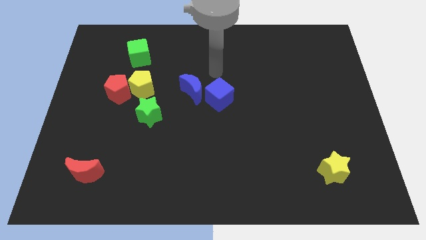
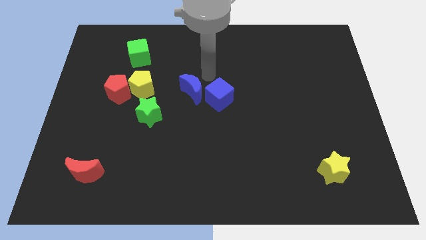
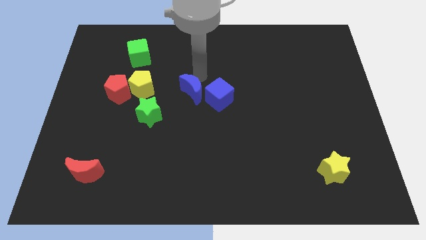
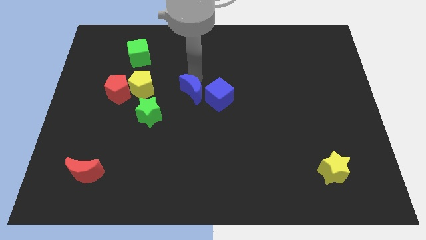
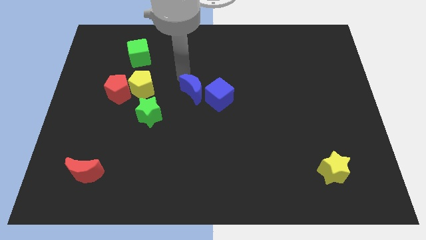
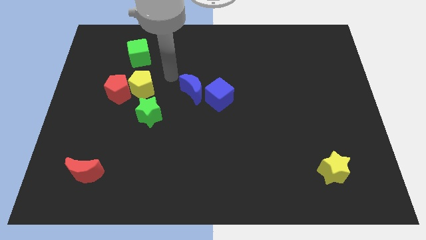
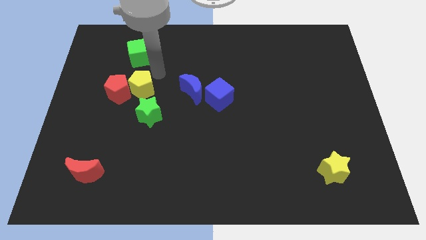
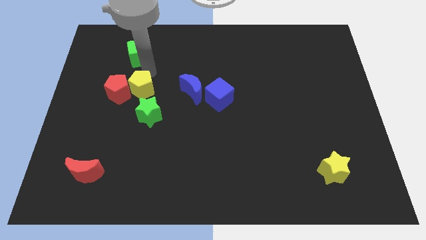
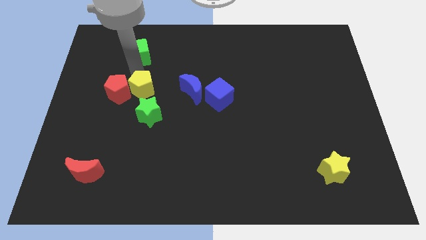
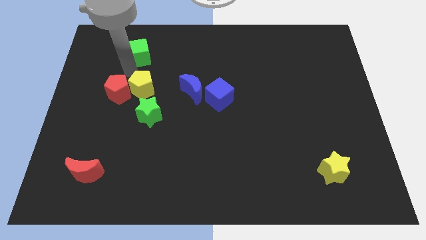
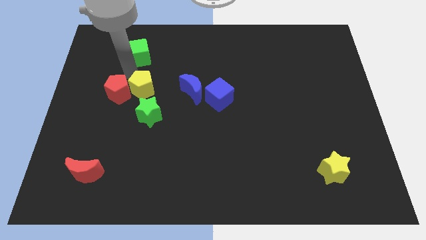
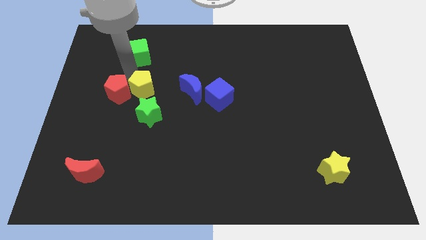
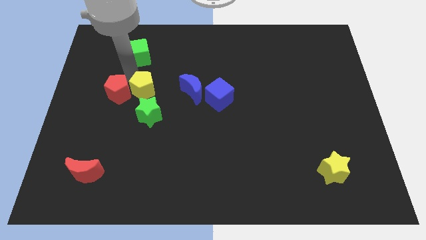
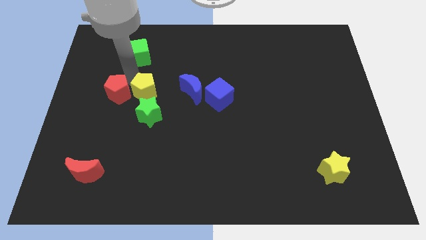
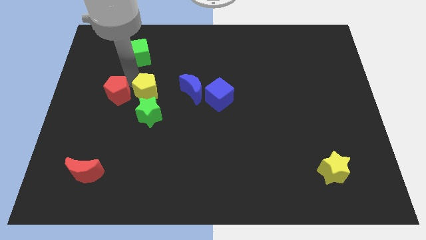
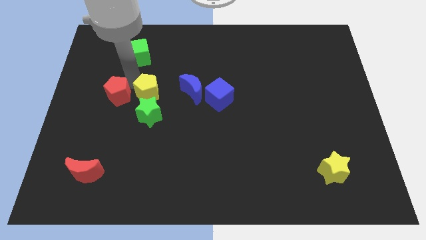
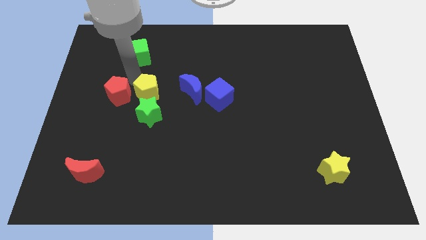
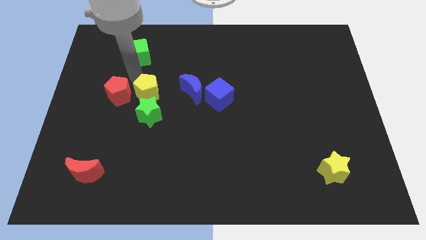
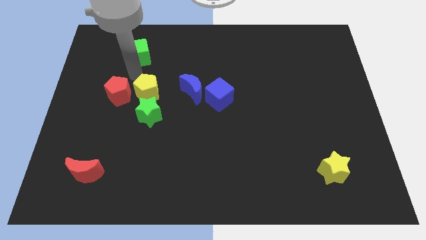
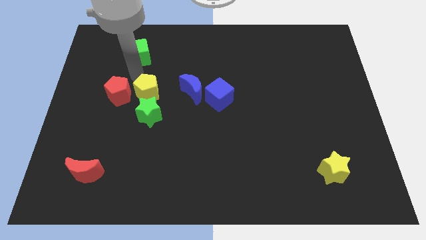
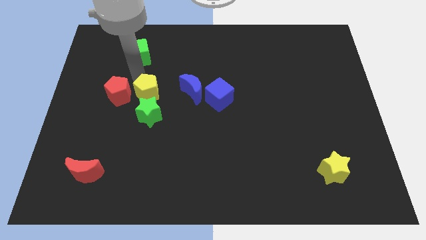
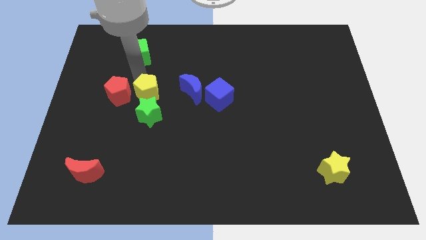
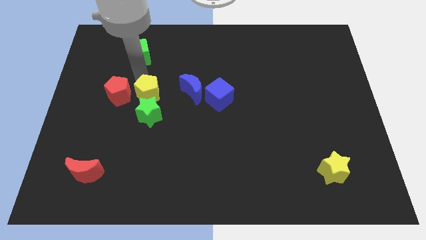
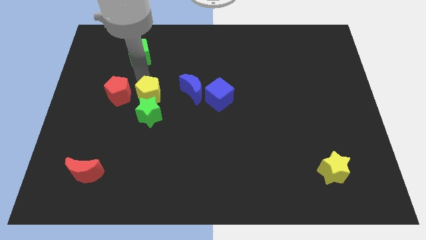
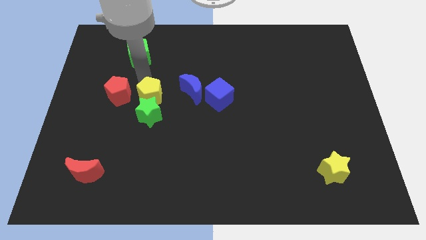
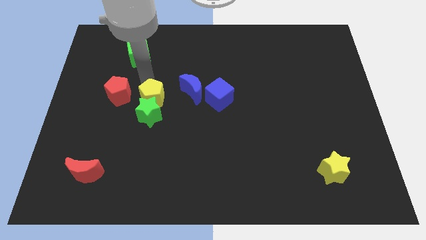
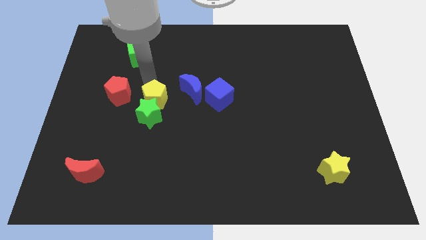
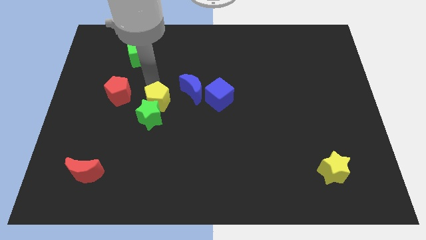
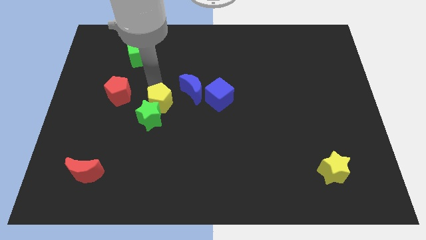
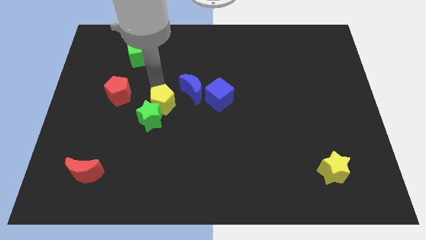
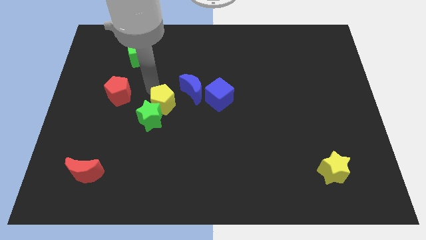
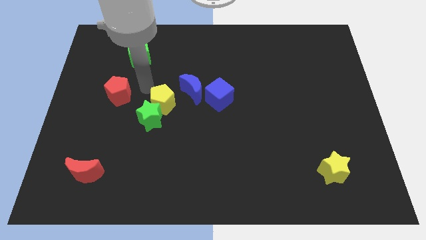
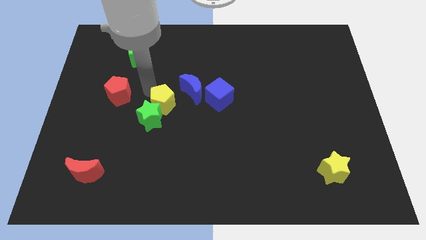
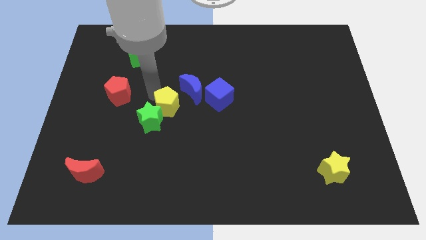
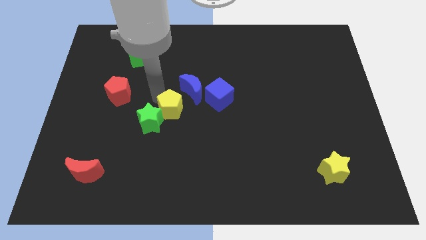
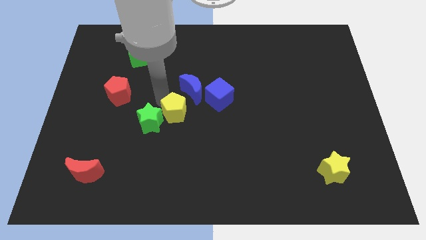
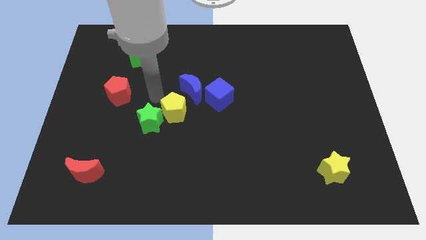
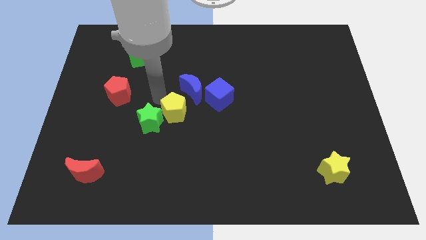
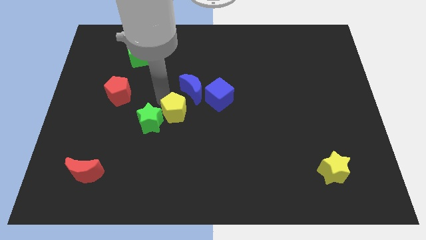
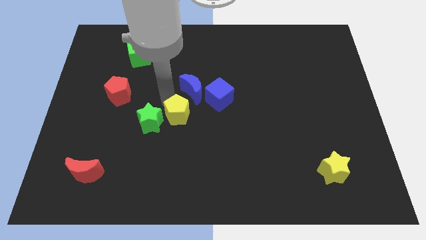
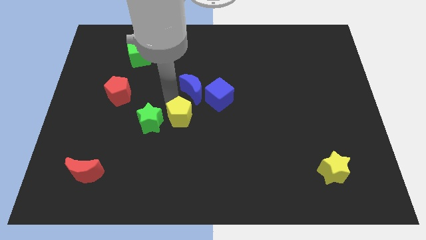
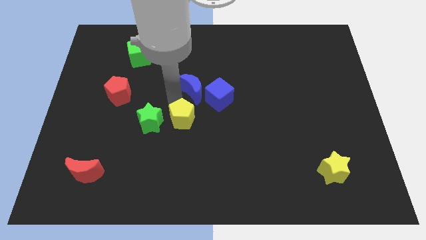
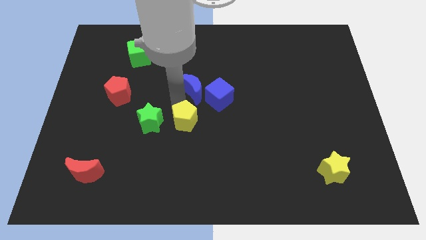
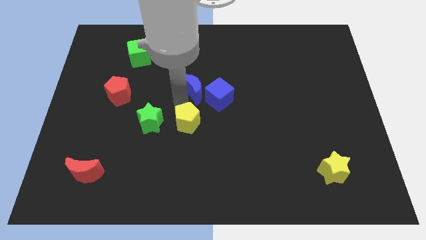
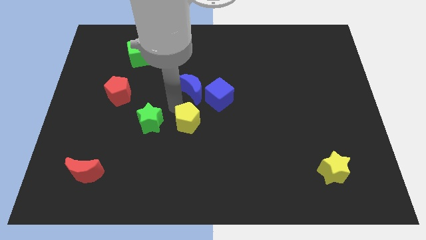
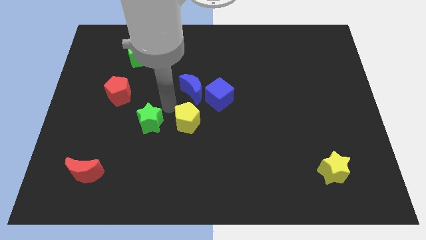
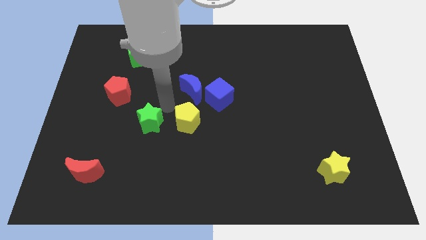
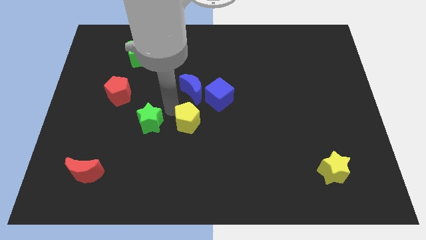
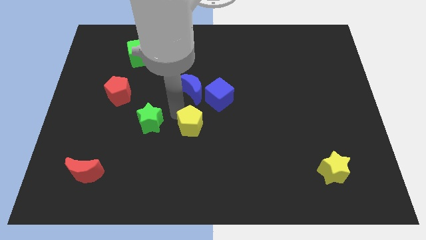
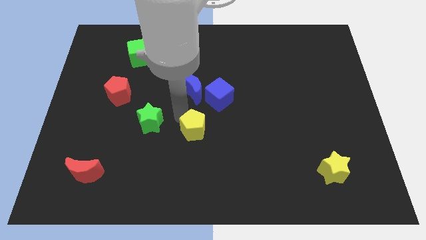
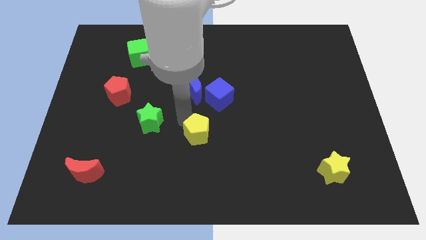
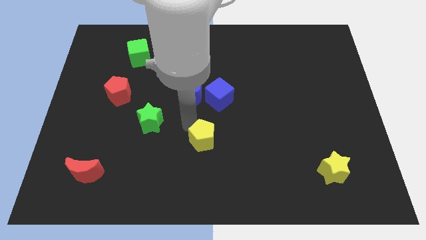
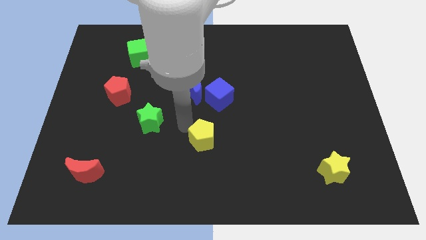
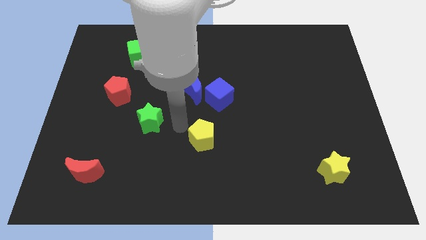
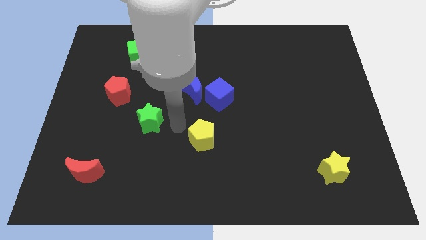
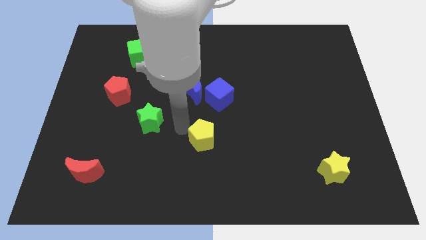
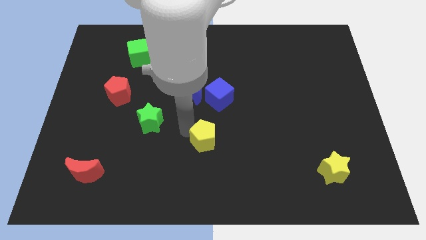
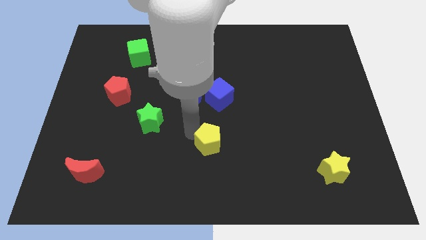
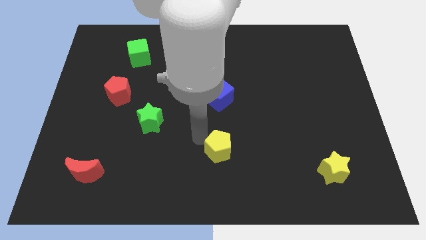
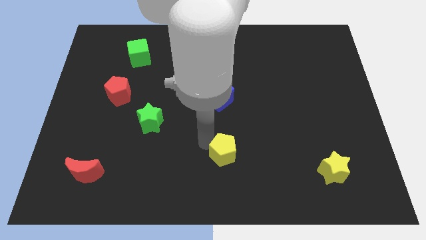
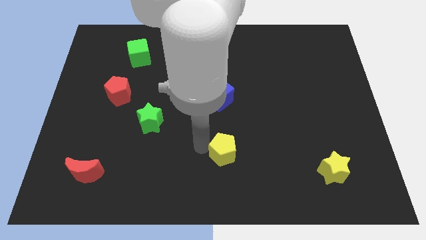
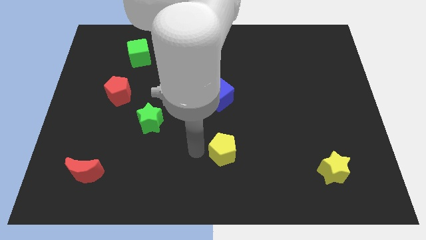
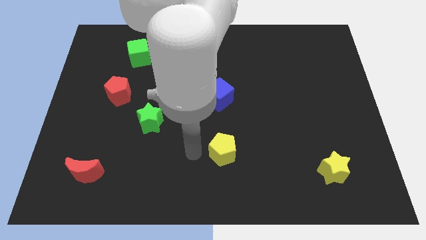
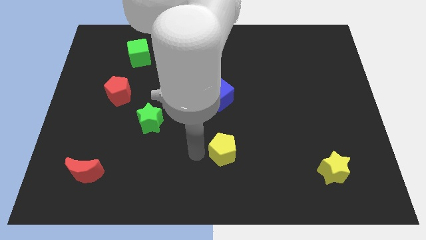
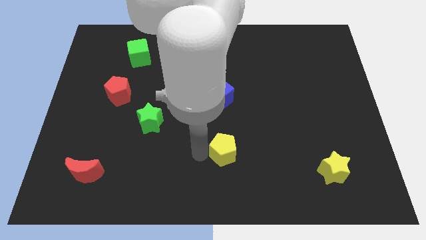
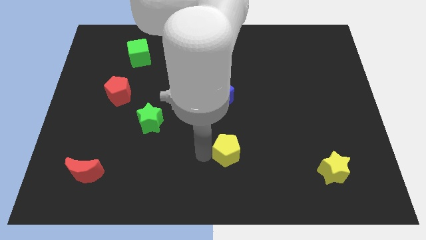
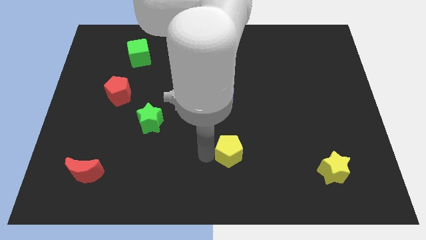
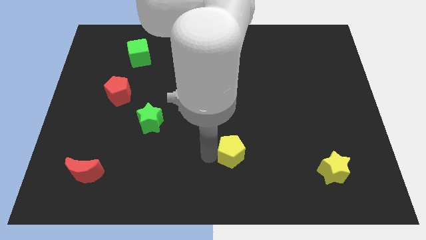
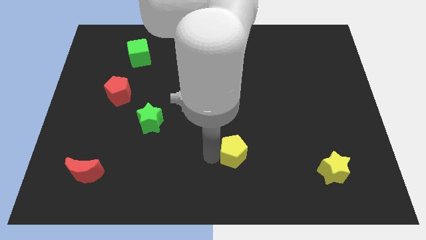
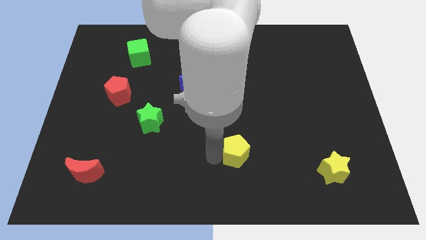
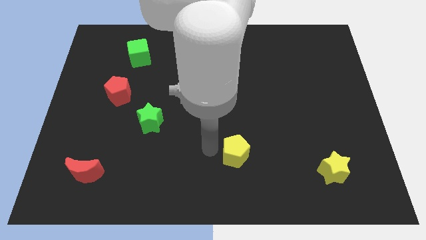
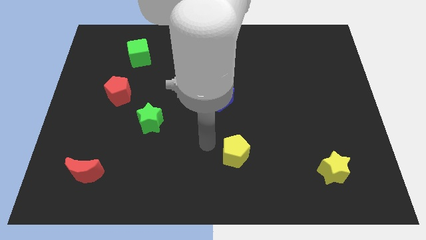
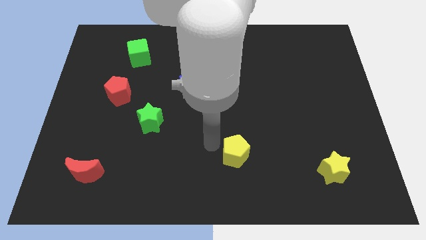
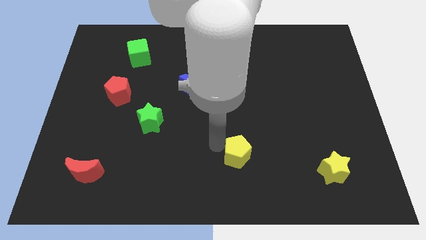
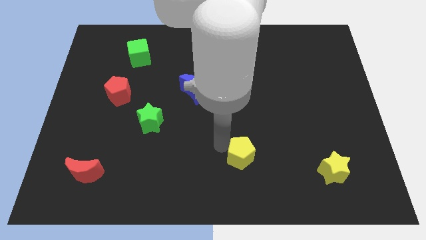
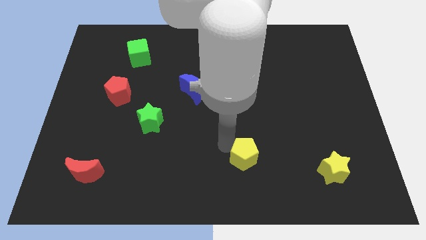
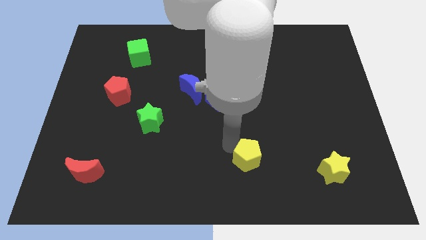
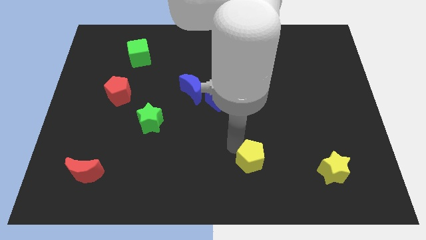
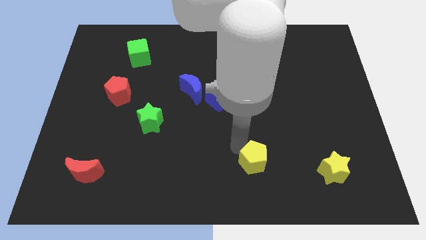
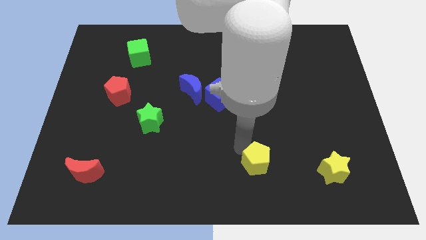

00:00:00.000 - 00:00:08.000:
slide the yellow pentagon to the left of the yellow star
